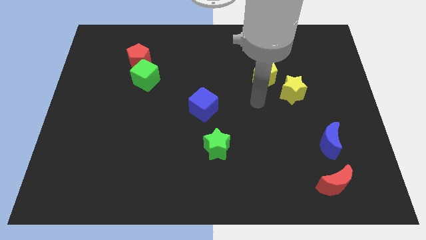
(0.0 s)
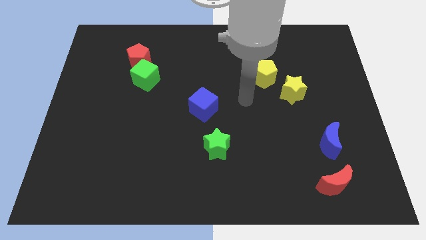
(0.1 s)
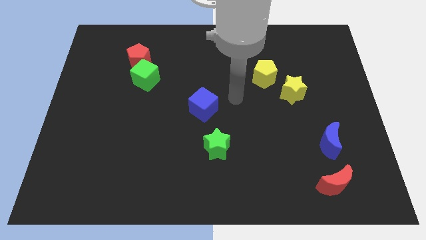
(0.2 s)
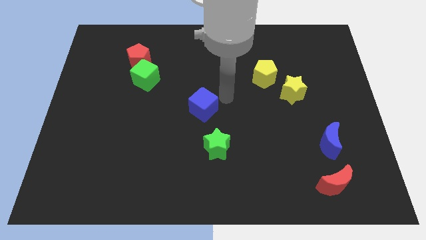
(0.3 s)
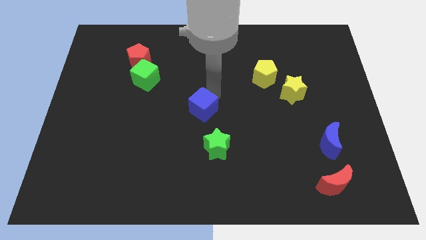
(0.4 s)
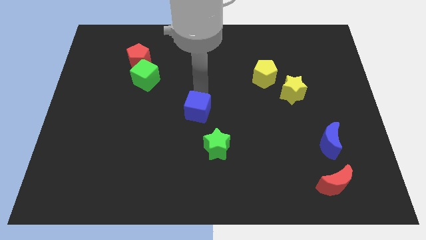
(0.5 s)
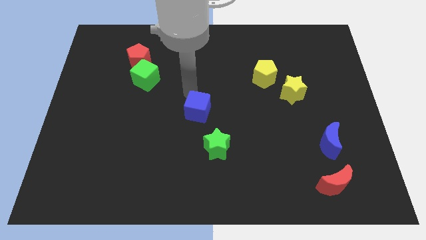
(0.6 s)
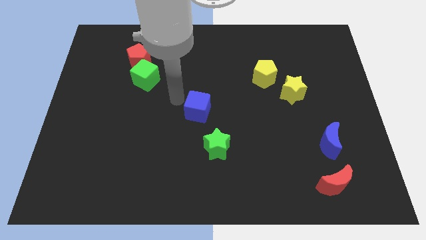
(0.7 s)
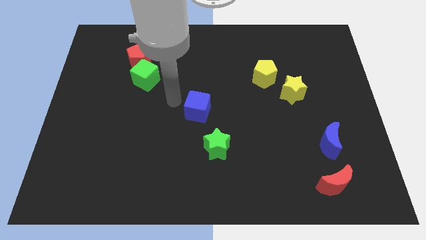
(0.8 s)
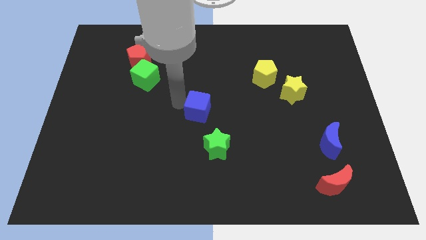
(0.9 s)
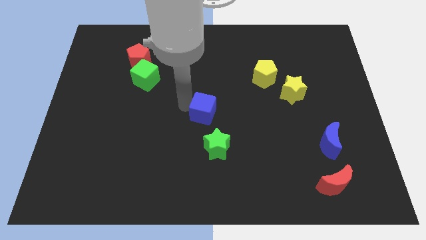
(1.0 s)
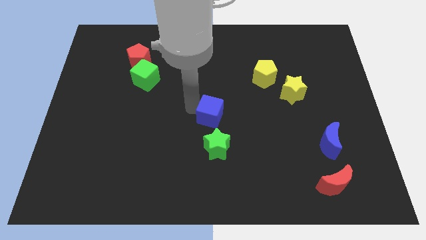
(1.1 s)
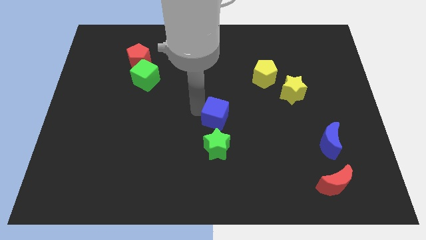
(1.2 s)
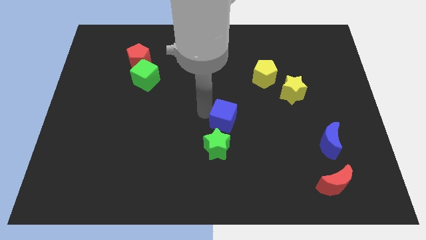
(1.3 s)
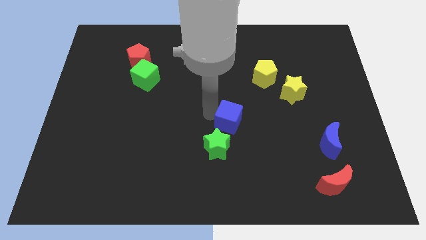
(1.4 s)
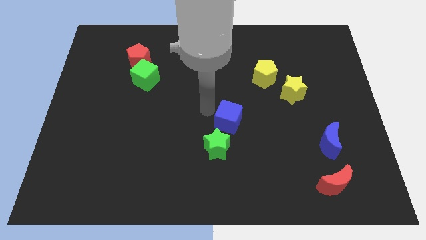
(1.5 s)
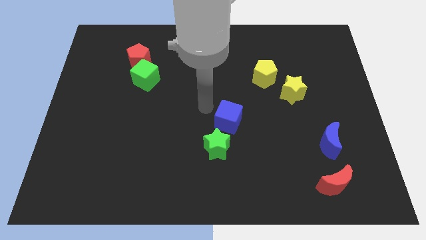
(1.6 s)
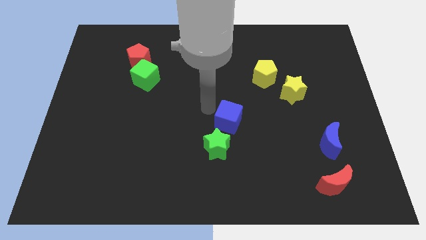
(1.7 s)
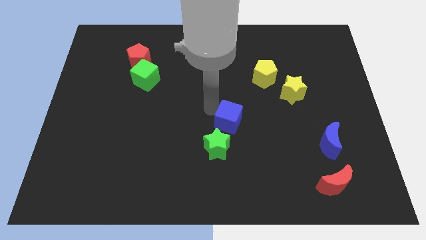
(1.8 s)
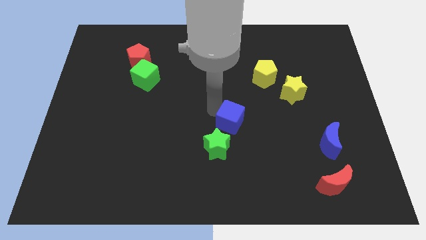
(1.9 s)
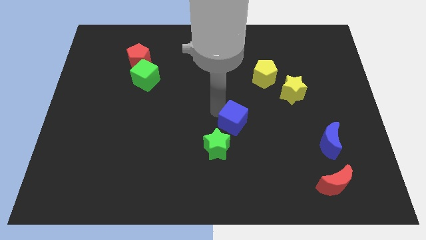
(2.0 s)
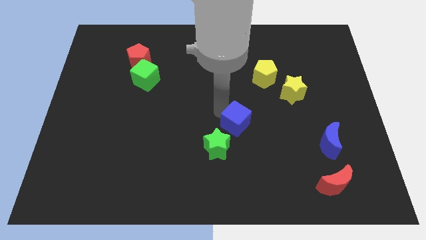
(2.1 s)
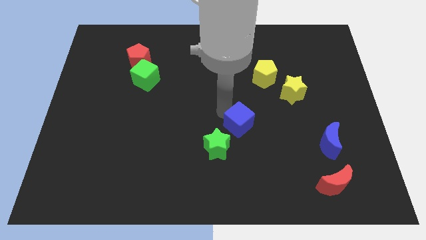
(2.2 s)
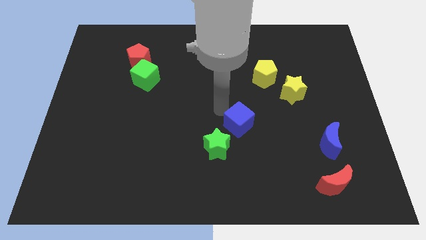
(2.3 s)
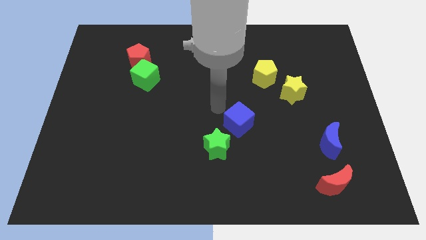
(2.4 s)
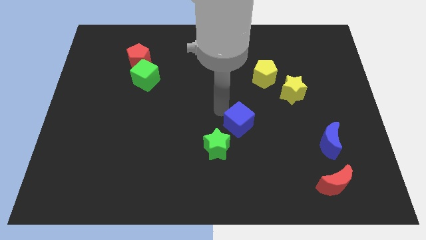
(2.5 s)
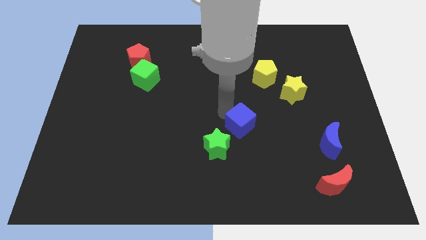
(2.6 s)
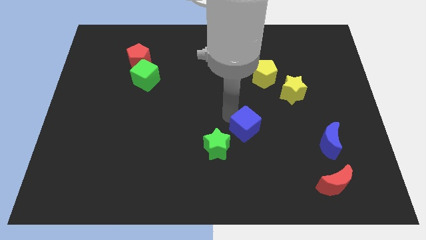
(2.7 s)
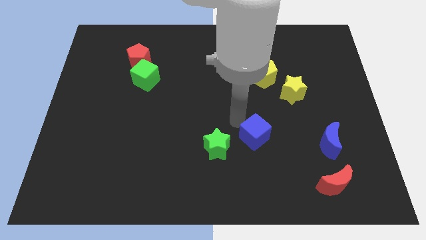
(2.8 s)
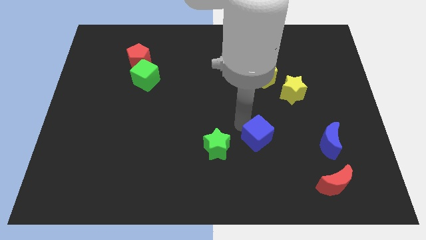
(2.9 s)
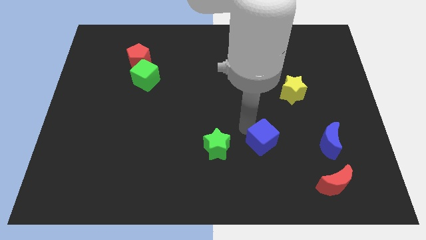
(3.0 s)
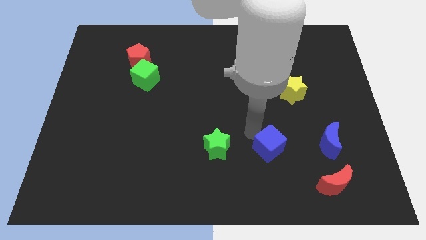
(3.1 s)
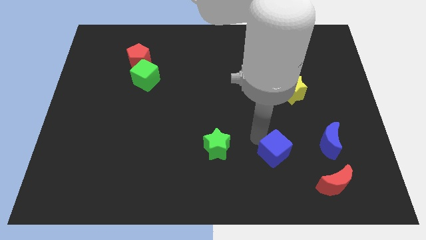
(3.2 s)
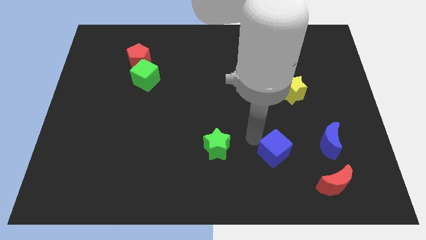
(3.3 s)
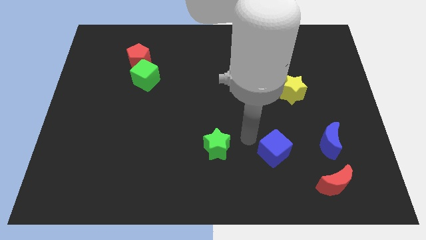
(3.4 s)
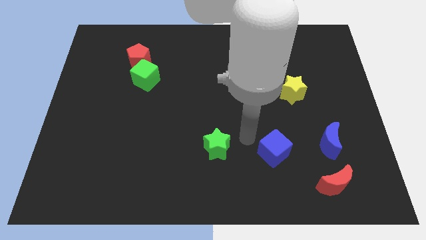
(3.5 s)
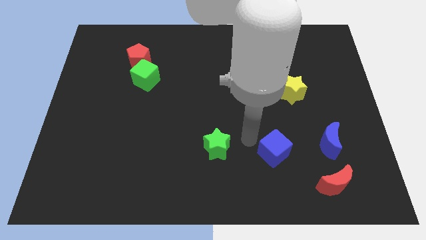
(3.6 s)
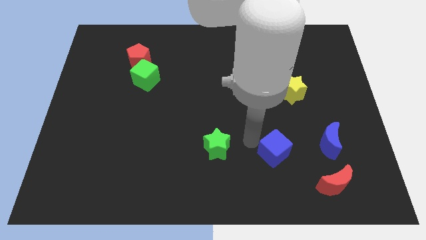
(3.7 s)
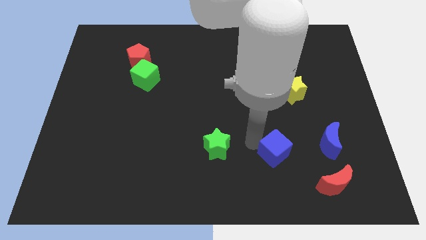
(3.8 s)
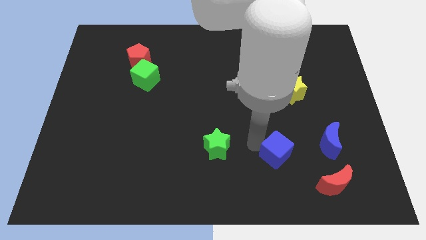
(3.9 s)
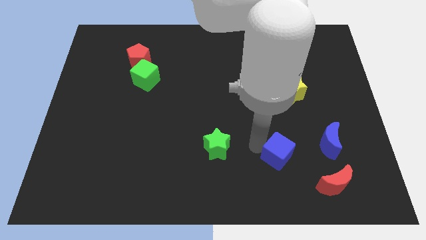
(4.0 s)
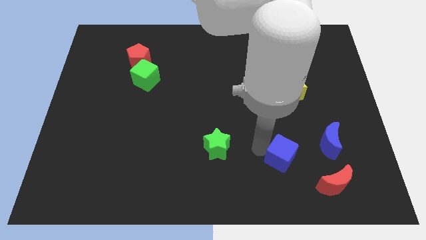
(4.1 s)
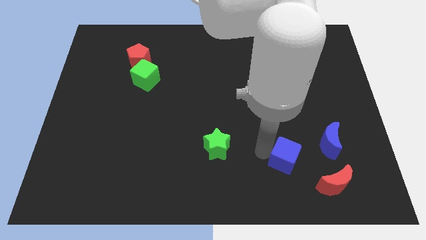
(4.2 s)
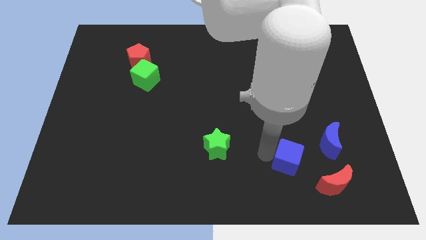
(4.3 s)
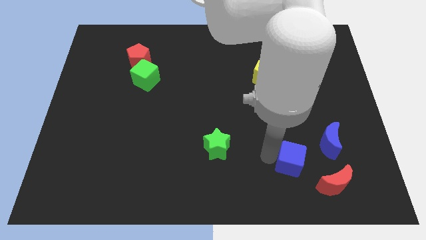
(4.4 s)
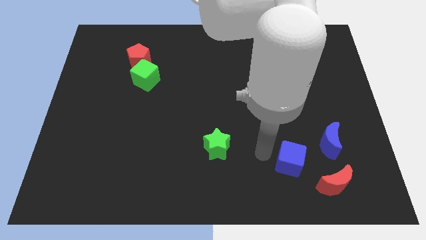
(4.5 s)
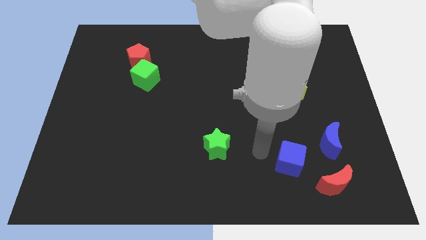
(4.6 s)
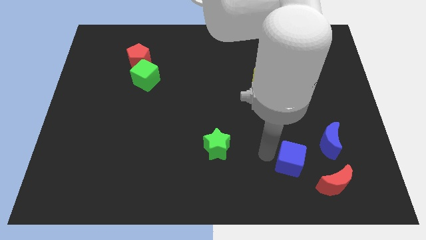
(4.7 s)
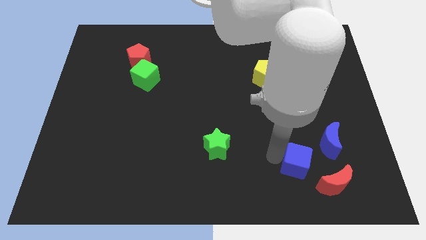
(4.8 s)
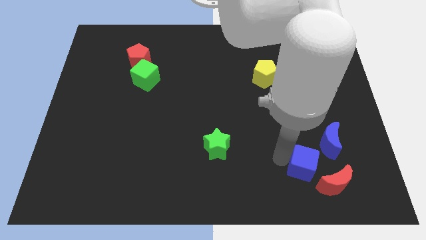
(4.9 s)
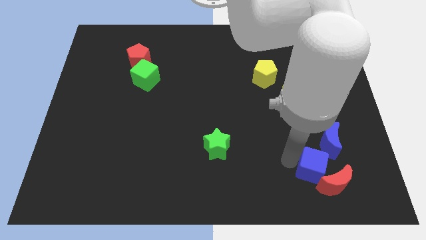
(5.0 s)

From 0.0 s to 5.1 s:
slide the blue cube close to the red moon

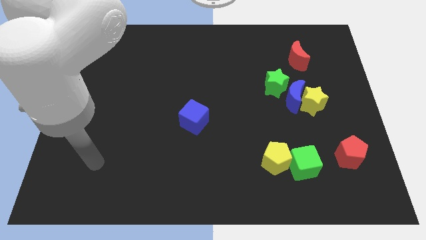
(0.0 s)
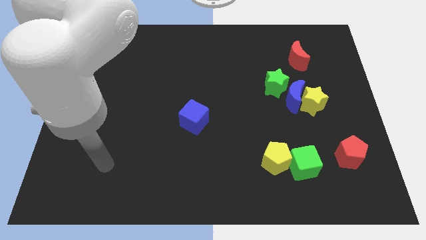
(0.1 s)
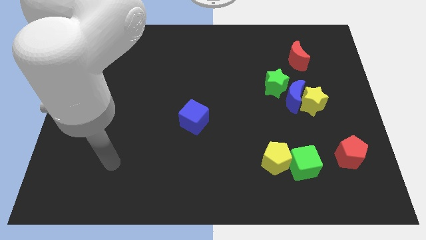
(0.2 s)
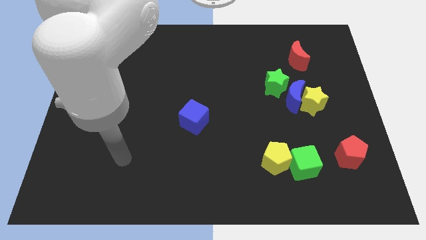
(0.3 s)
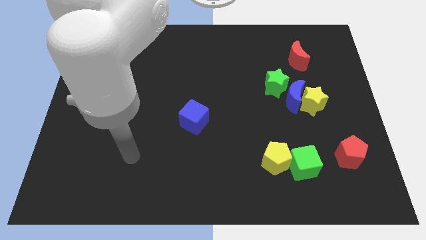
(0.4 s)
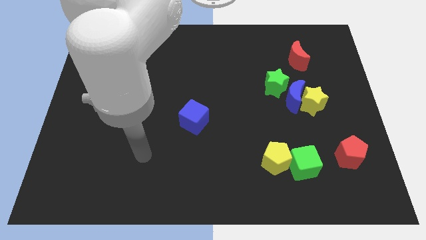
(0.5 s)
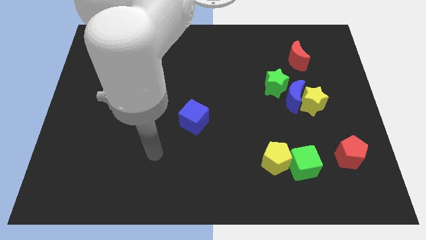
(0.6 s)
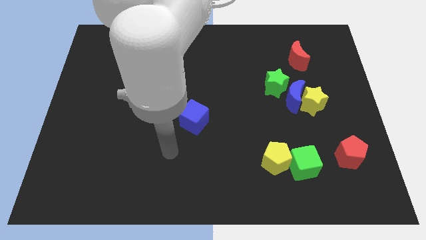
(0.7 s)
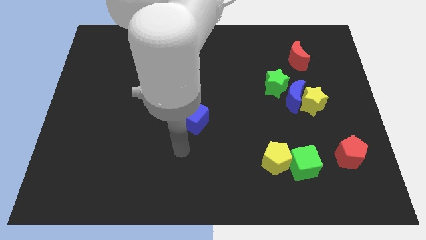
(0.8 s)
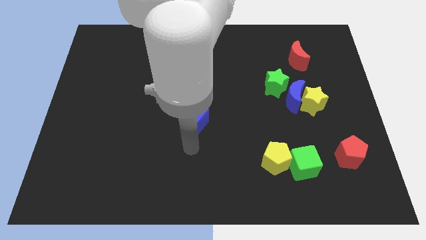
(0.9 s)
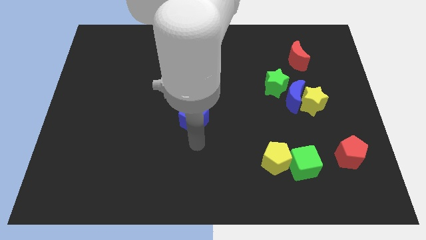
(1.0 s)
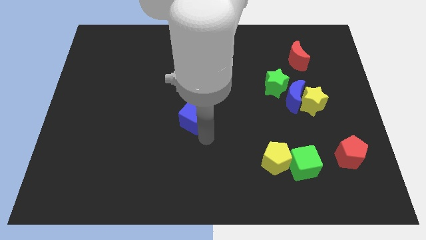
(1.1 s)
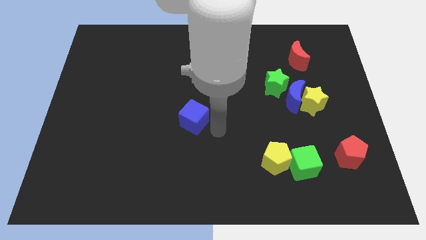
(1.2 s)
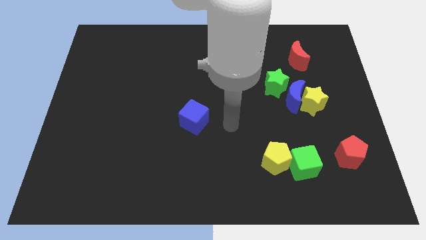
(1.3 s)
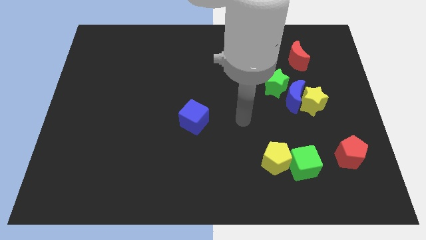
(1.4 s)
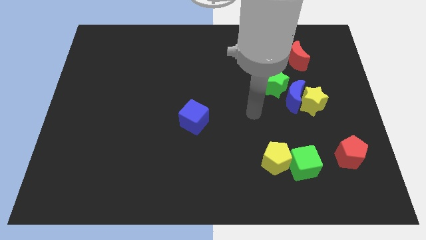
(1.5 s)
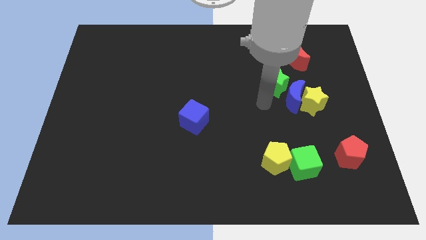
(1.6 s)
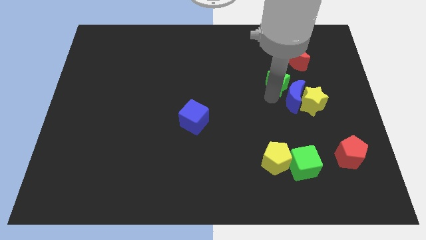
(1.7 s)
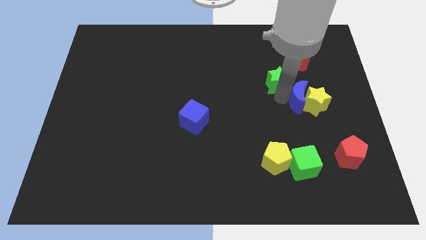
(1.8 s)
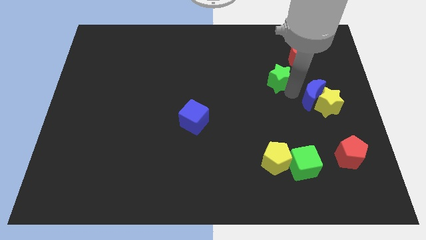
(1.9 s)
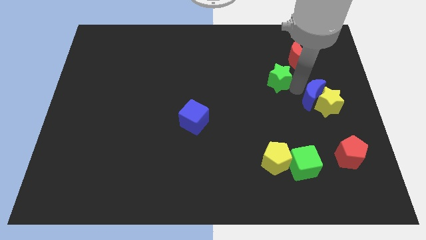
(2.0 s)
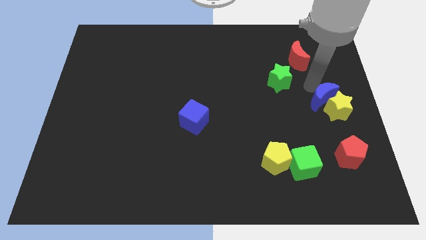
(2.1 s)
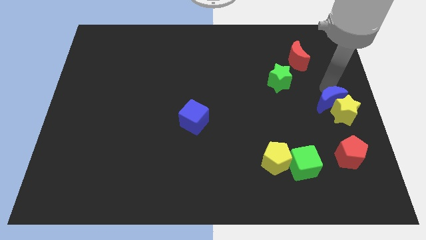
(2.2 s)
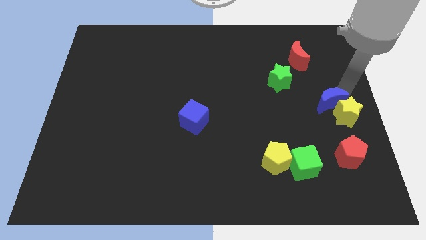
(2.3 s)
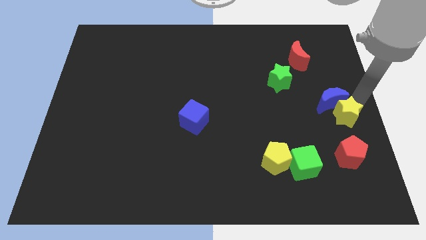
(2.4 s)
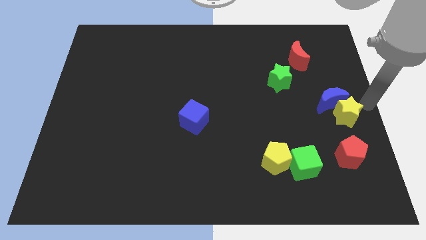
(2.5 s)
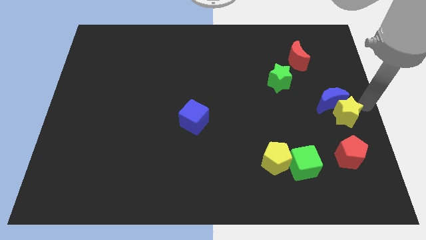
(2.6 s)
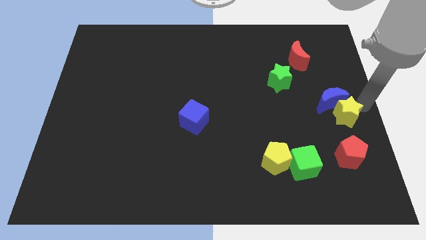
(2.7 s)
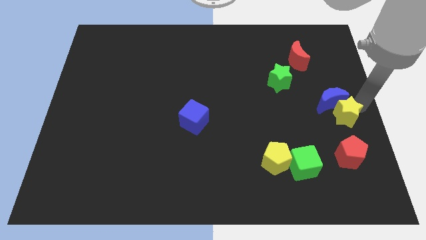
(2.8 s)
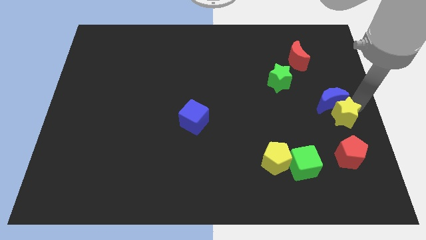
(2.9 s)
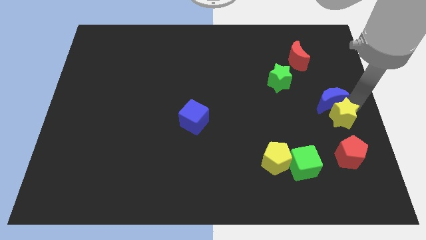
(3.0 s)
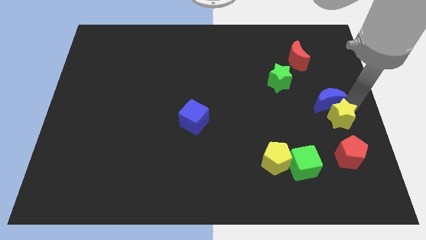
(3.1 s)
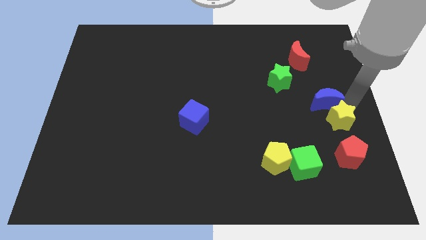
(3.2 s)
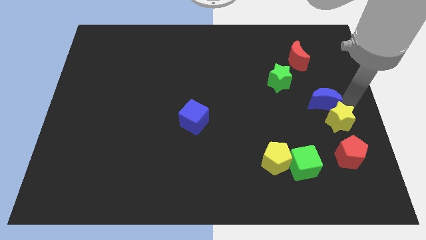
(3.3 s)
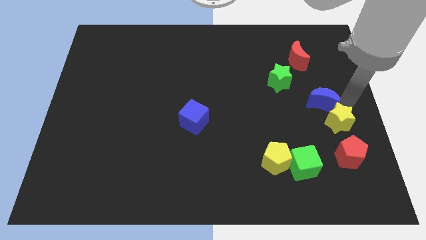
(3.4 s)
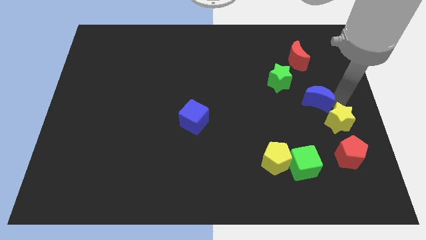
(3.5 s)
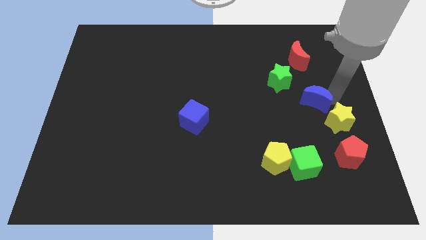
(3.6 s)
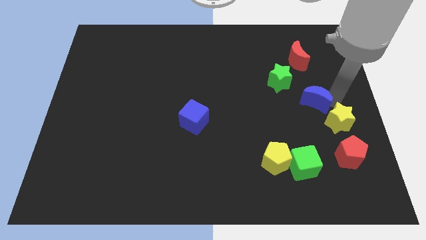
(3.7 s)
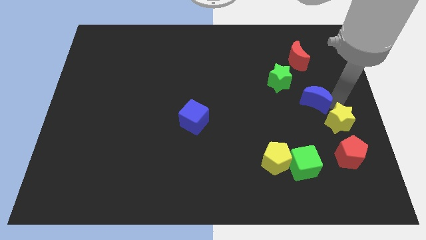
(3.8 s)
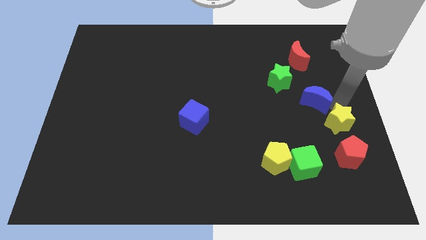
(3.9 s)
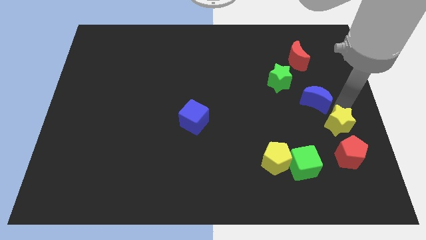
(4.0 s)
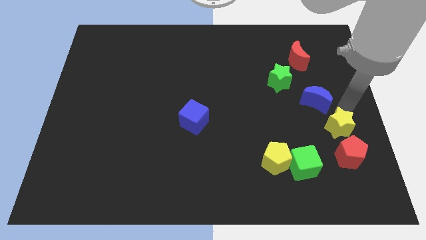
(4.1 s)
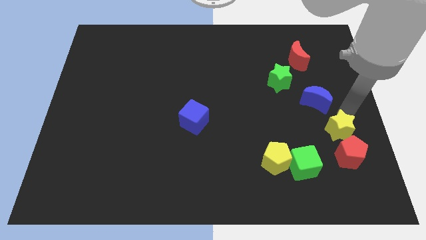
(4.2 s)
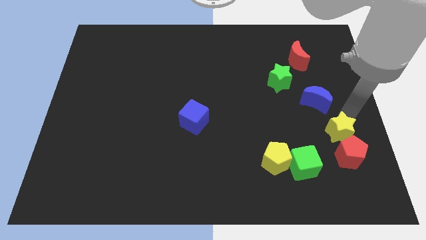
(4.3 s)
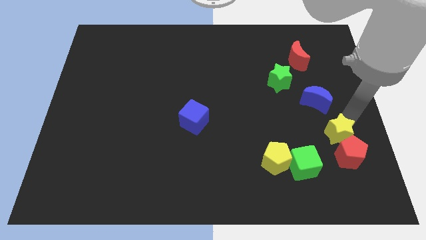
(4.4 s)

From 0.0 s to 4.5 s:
slide the yellow star to the red pentagon
